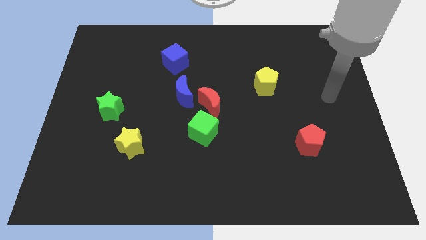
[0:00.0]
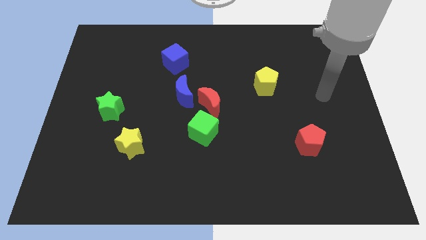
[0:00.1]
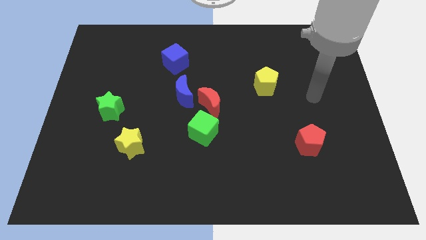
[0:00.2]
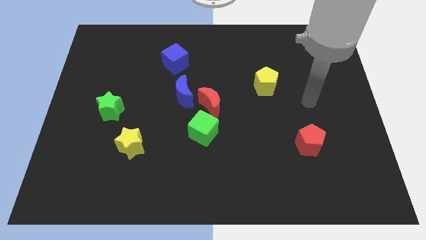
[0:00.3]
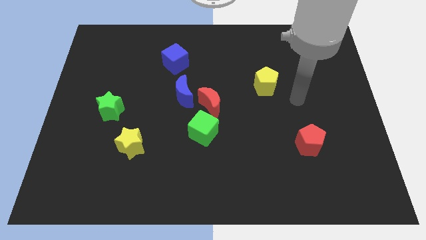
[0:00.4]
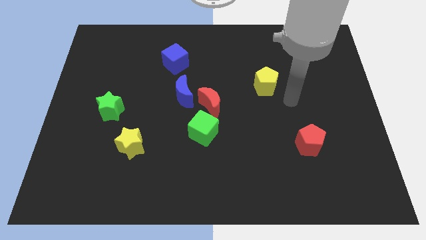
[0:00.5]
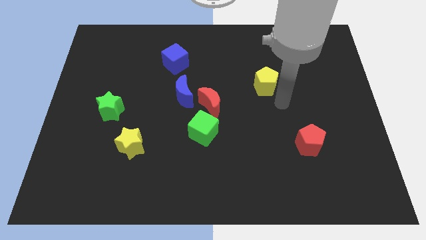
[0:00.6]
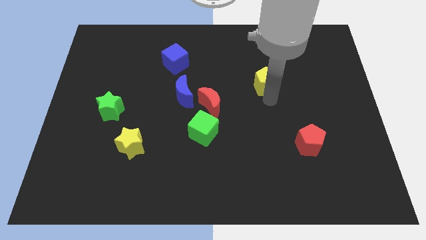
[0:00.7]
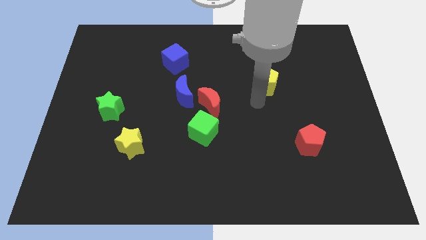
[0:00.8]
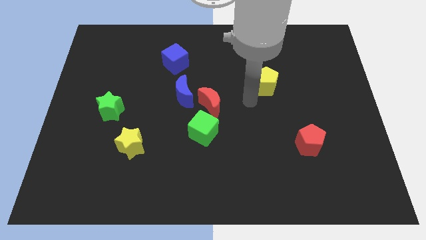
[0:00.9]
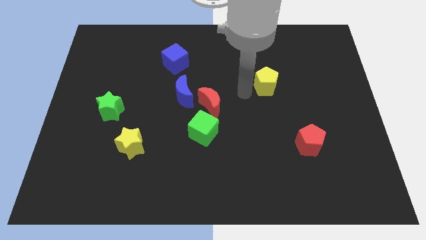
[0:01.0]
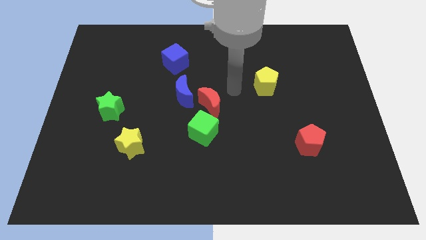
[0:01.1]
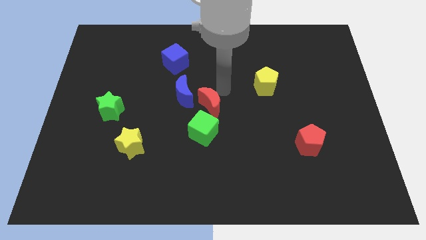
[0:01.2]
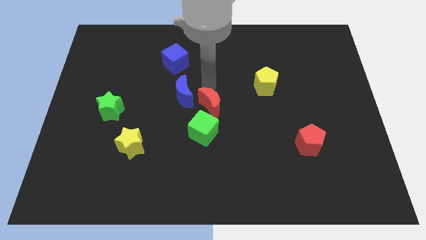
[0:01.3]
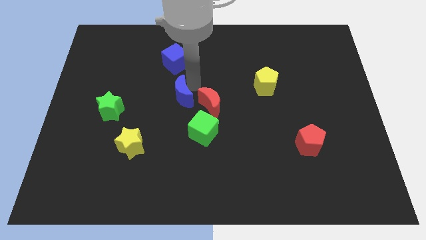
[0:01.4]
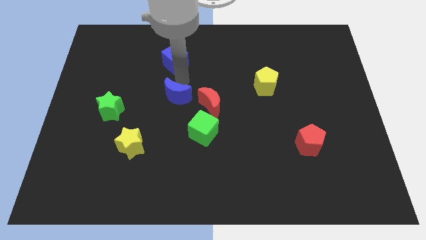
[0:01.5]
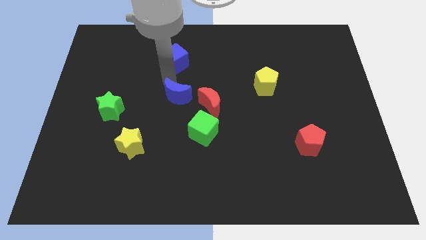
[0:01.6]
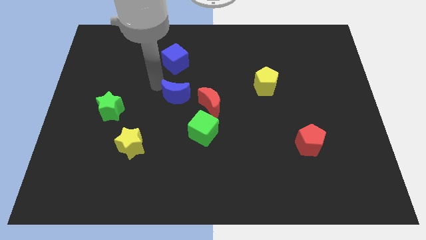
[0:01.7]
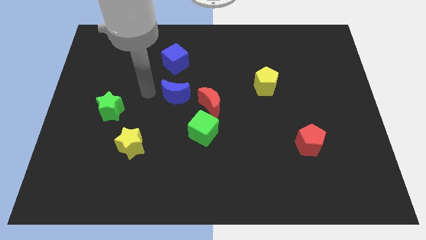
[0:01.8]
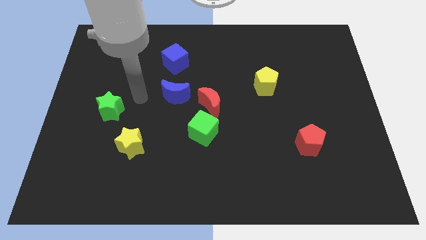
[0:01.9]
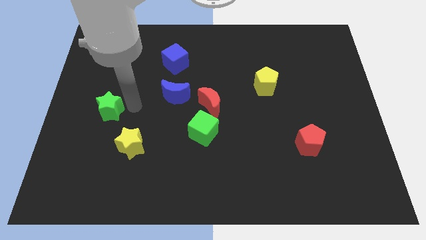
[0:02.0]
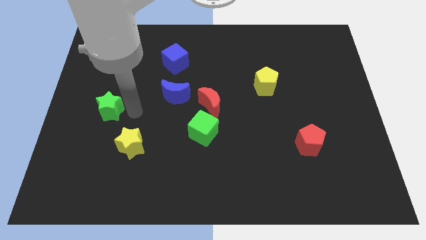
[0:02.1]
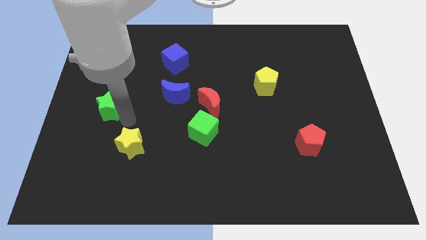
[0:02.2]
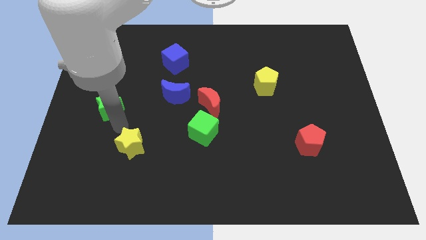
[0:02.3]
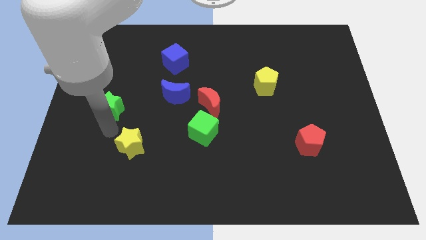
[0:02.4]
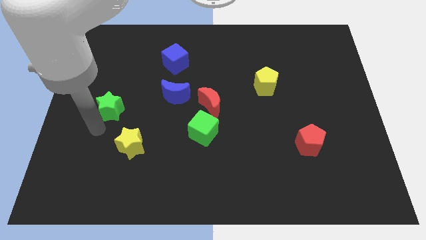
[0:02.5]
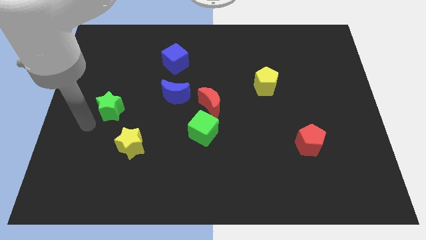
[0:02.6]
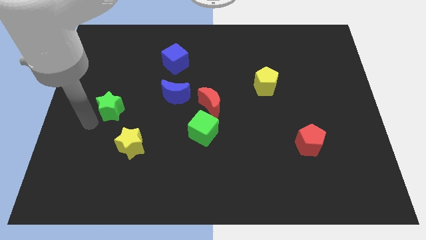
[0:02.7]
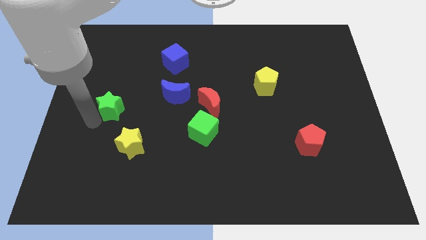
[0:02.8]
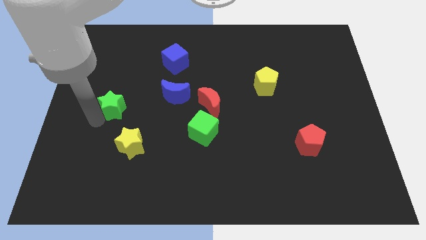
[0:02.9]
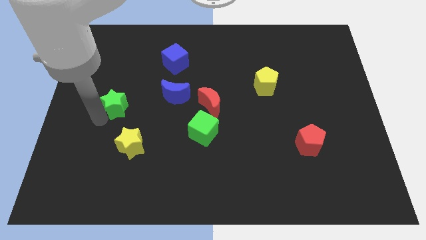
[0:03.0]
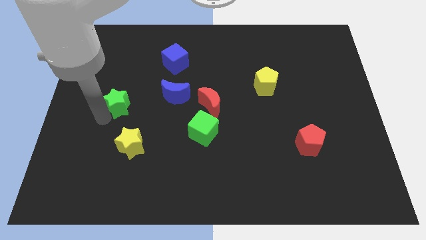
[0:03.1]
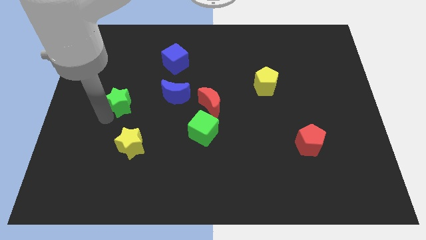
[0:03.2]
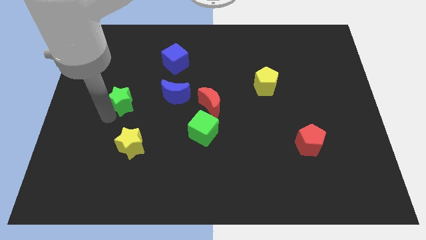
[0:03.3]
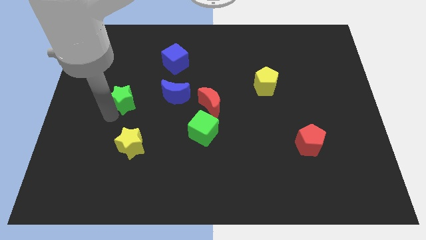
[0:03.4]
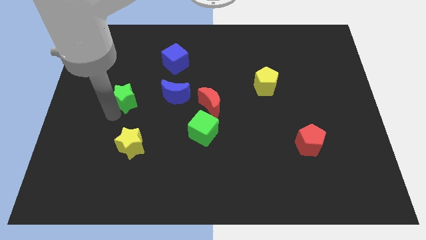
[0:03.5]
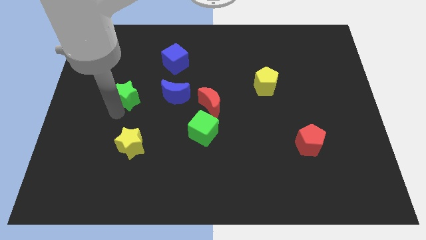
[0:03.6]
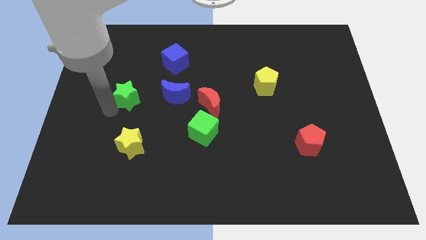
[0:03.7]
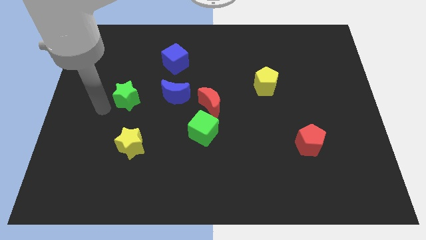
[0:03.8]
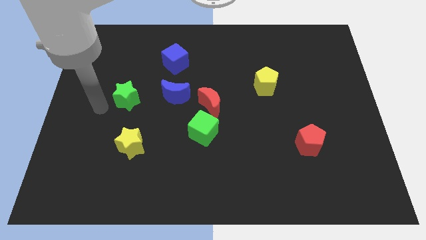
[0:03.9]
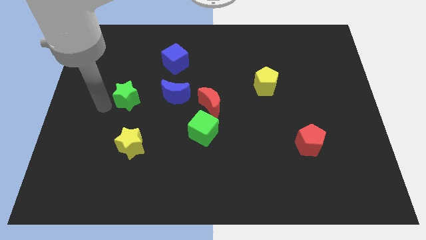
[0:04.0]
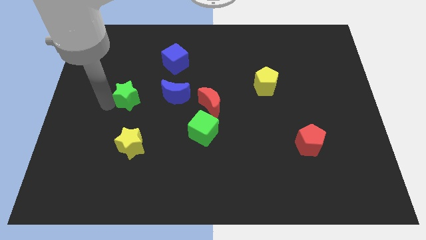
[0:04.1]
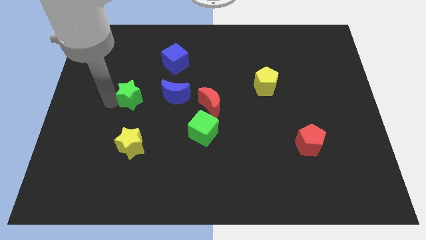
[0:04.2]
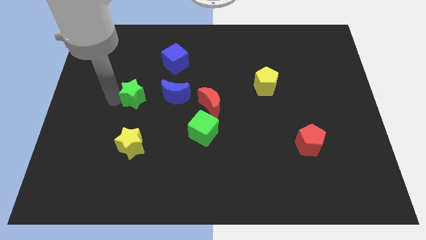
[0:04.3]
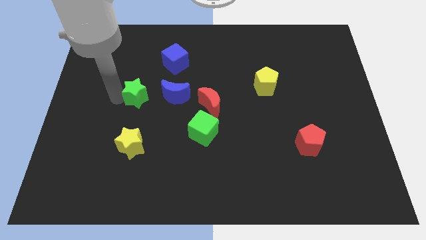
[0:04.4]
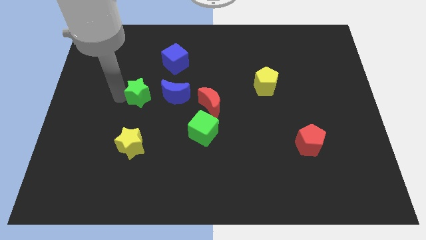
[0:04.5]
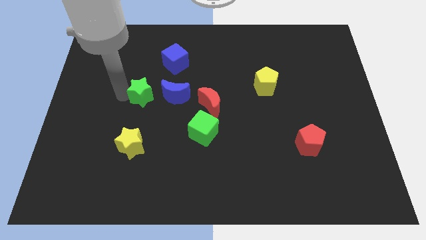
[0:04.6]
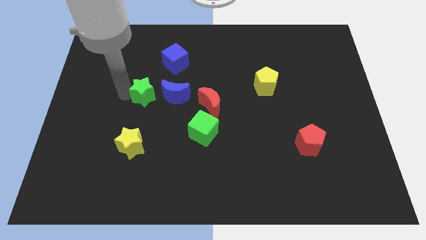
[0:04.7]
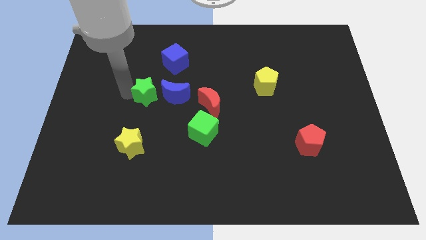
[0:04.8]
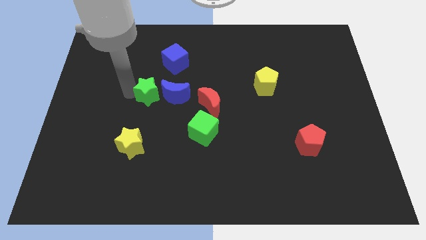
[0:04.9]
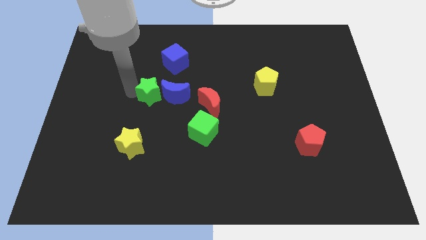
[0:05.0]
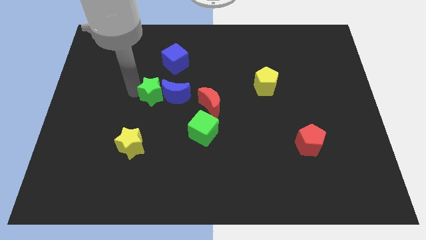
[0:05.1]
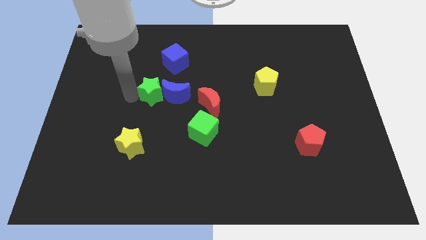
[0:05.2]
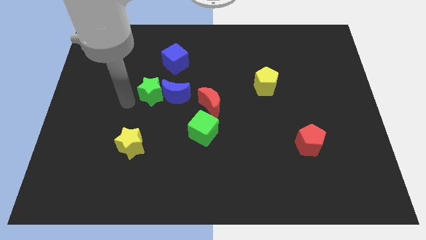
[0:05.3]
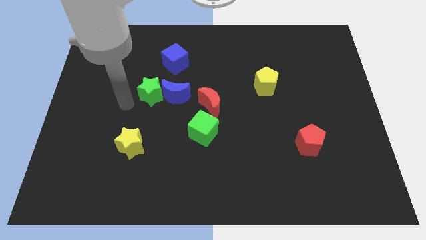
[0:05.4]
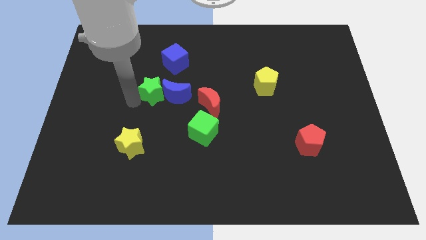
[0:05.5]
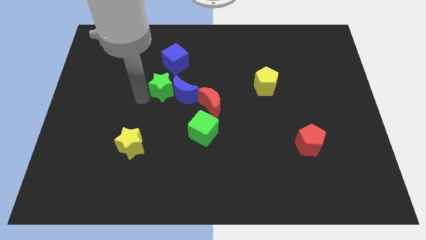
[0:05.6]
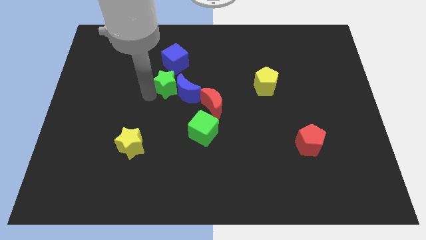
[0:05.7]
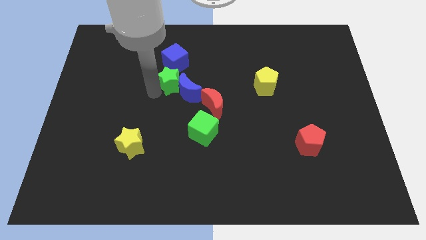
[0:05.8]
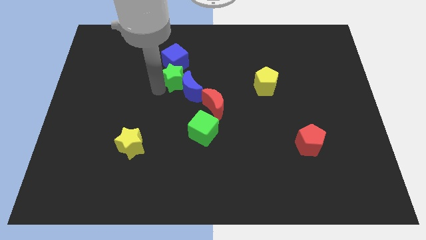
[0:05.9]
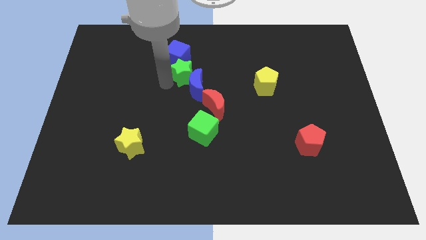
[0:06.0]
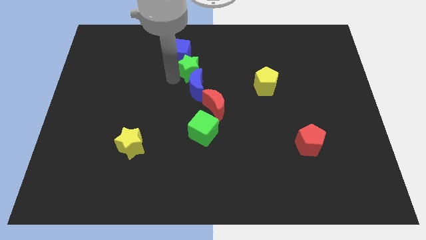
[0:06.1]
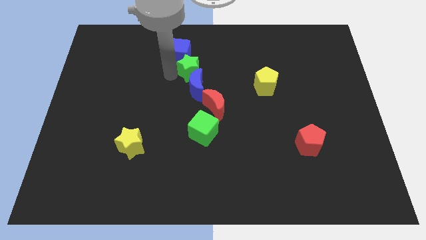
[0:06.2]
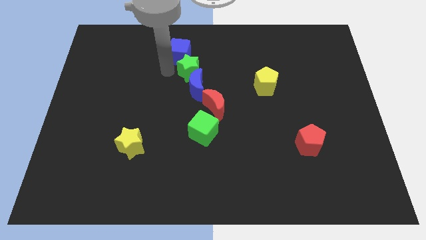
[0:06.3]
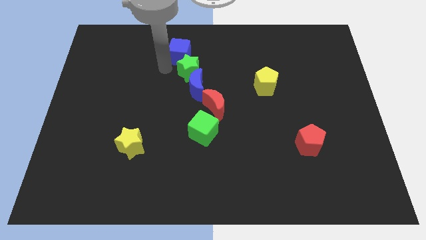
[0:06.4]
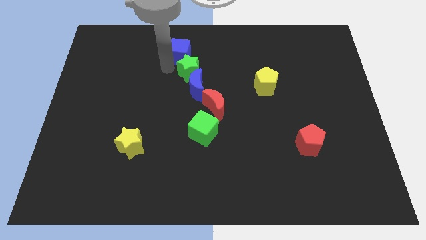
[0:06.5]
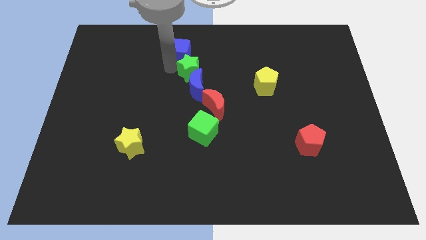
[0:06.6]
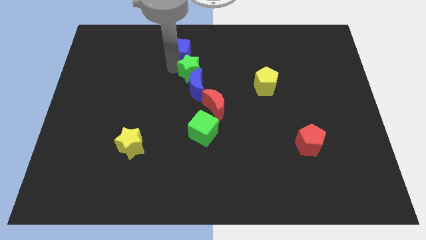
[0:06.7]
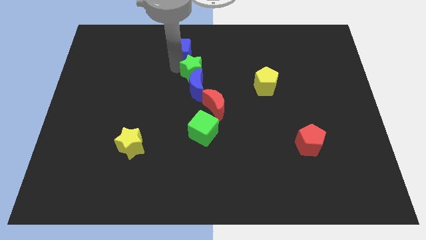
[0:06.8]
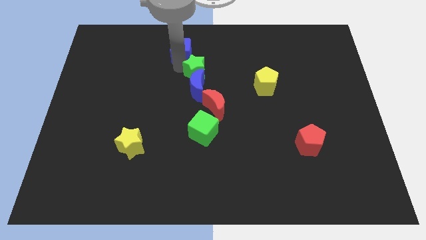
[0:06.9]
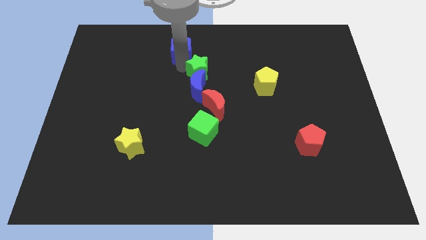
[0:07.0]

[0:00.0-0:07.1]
push the green star to the top of the red moon
